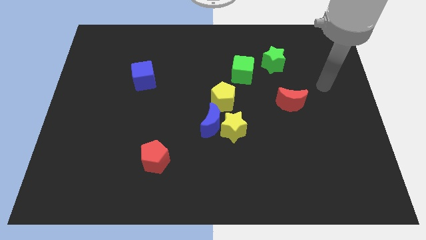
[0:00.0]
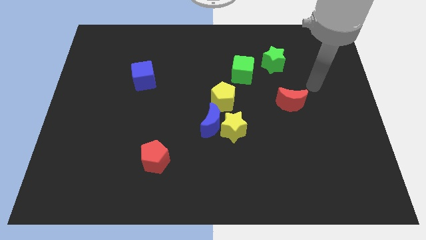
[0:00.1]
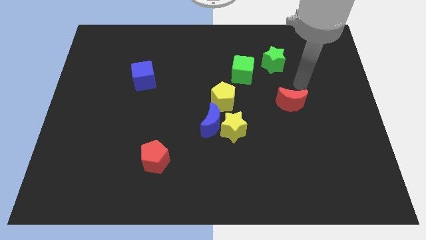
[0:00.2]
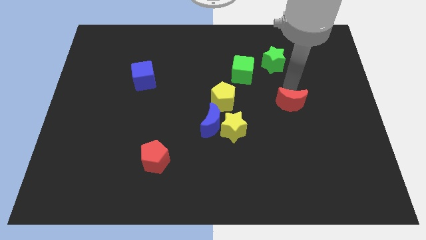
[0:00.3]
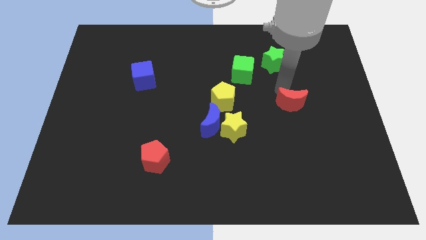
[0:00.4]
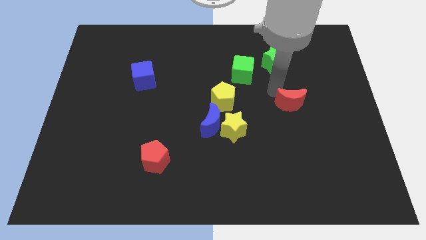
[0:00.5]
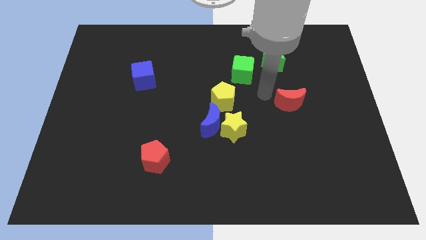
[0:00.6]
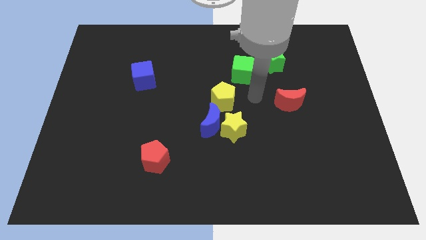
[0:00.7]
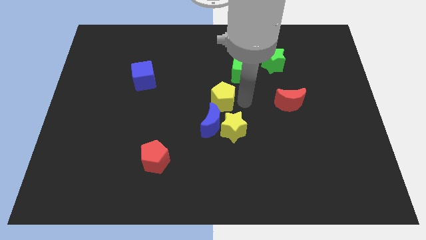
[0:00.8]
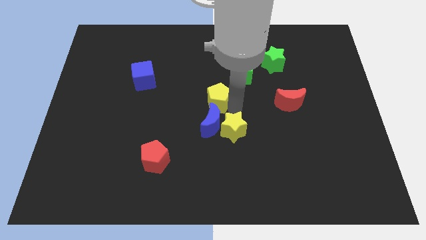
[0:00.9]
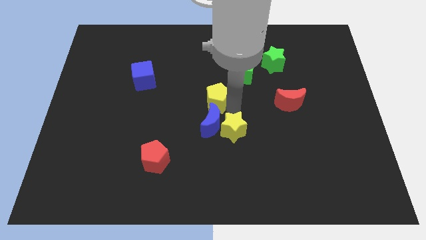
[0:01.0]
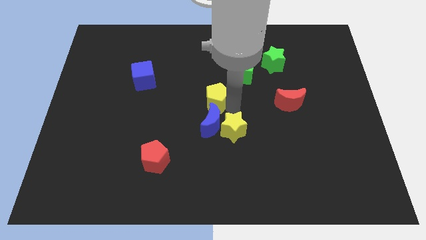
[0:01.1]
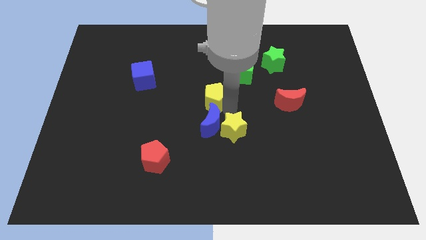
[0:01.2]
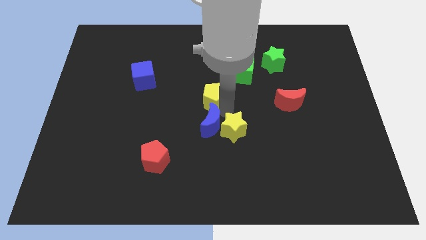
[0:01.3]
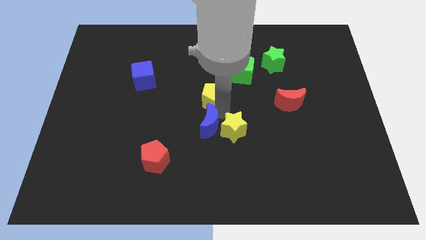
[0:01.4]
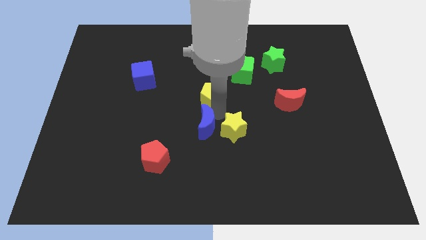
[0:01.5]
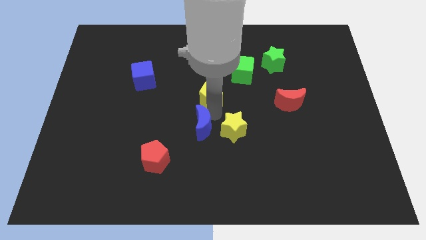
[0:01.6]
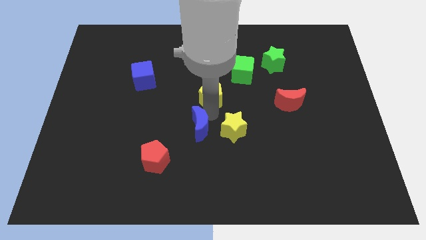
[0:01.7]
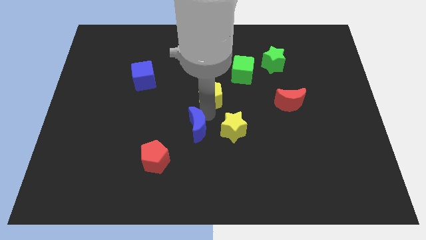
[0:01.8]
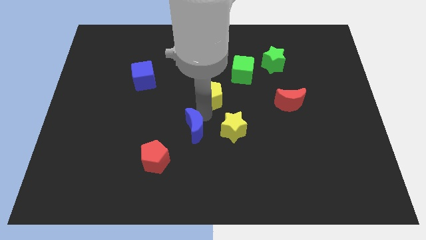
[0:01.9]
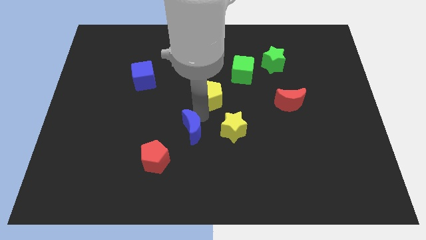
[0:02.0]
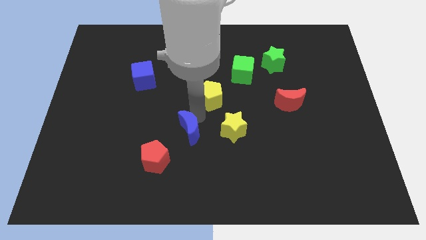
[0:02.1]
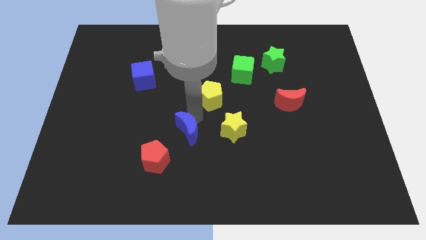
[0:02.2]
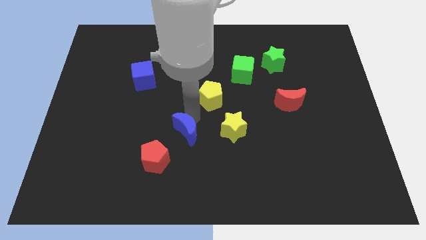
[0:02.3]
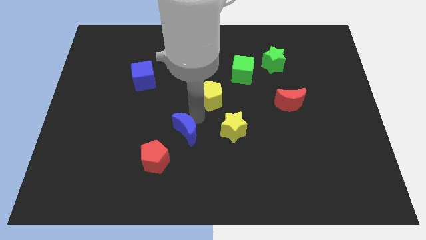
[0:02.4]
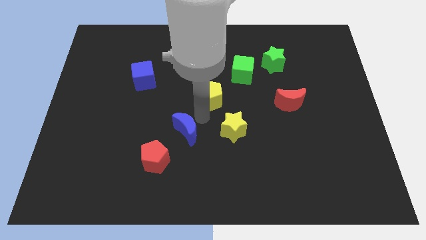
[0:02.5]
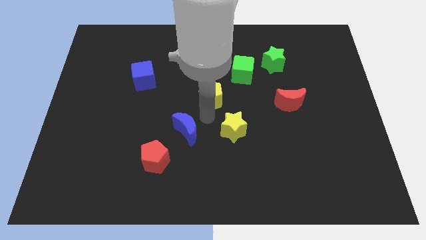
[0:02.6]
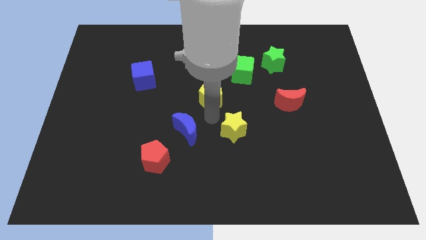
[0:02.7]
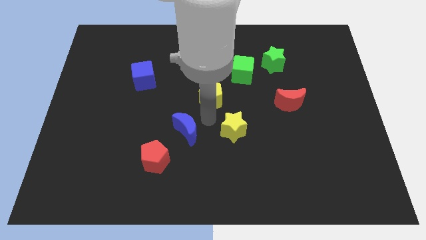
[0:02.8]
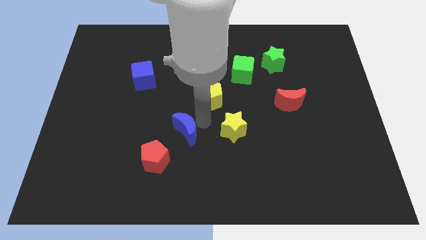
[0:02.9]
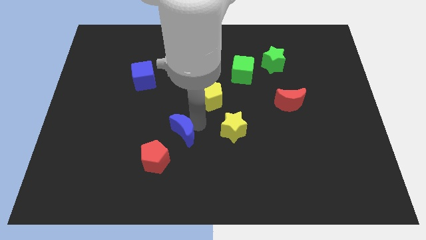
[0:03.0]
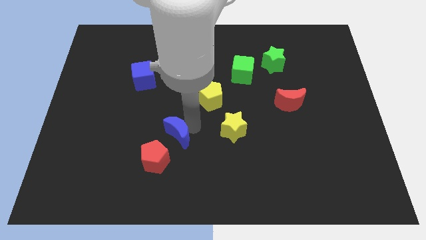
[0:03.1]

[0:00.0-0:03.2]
pull the blue moon apart from the yellow star and yellow pentagon

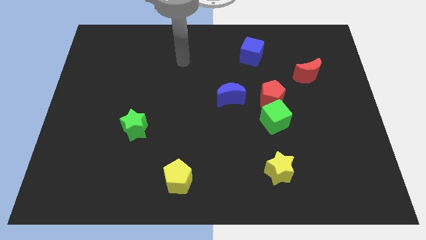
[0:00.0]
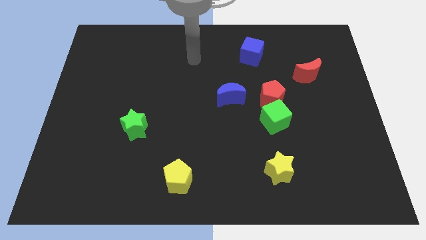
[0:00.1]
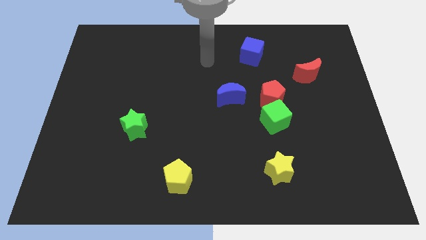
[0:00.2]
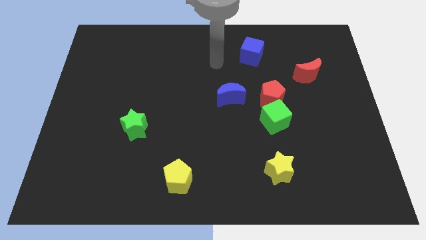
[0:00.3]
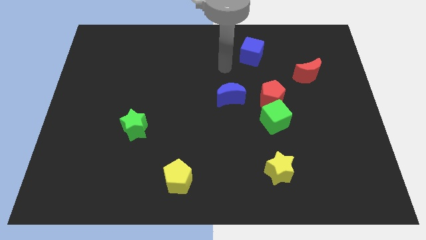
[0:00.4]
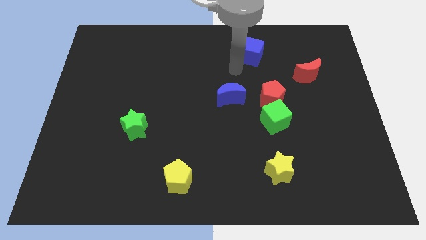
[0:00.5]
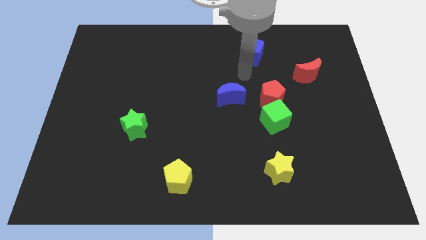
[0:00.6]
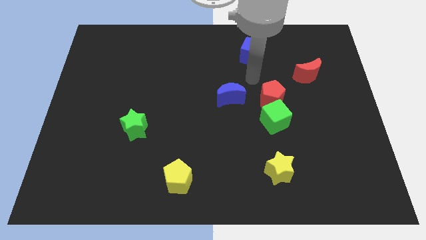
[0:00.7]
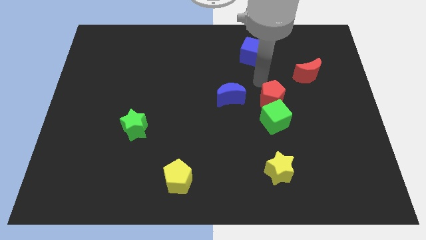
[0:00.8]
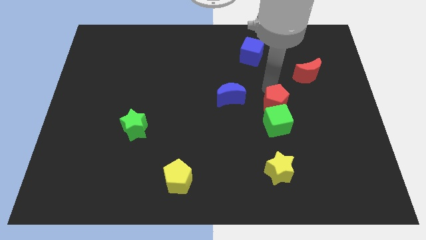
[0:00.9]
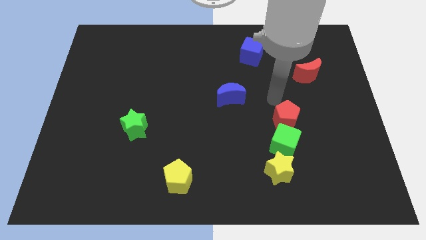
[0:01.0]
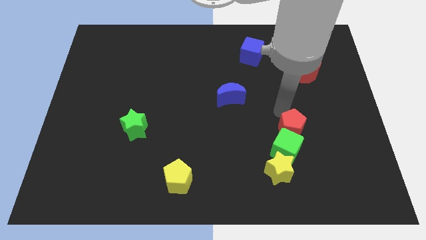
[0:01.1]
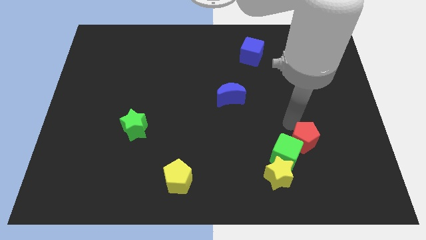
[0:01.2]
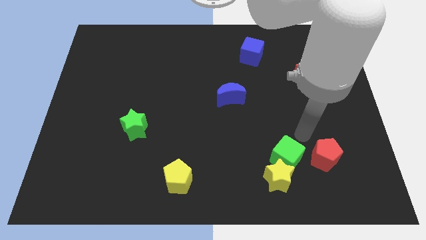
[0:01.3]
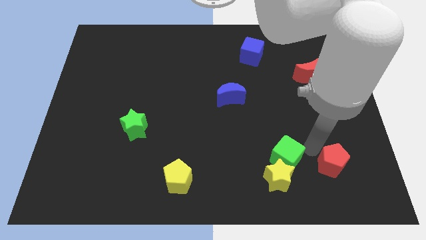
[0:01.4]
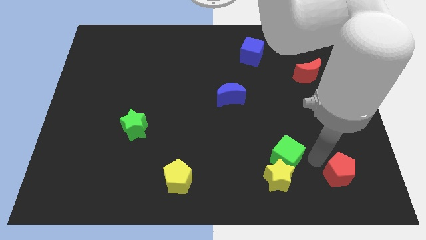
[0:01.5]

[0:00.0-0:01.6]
separate the green cube from the red pentagon

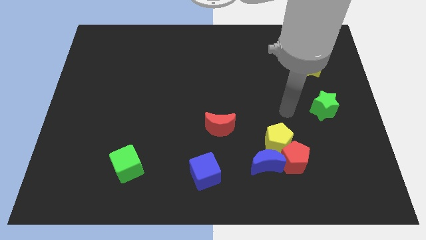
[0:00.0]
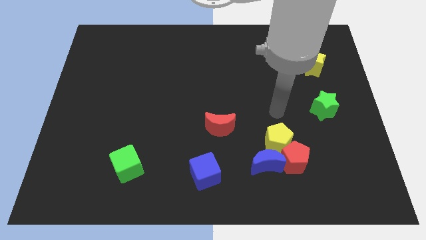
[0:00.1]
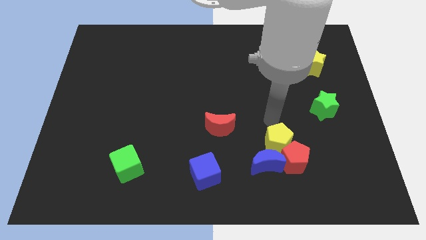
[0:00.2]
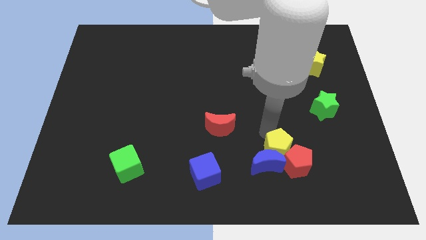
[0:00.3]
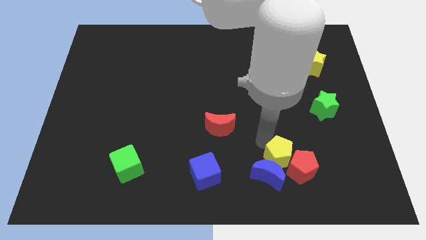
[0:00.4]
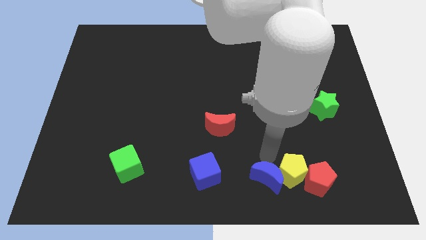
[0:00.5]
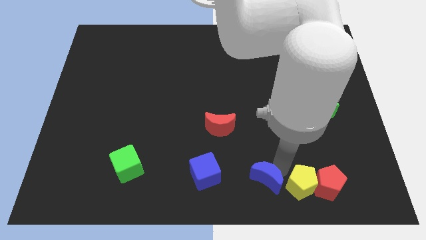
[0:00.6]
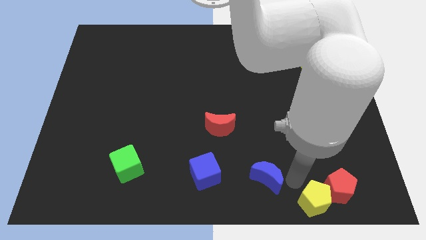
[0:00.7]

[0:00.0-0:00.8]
move the red pentagon away from the yellow pentagon and blue moon

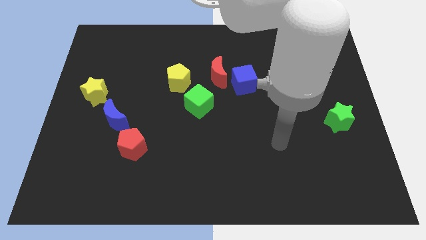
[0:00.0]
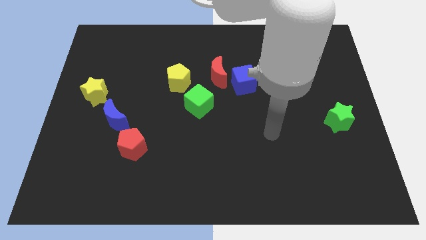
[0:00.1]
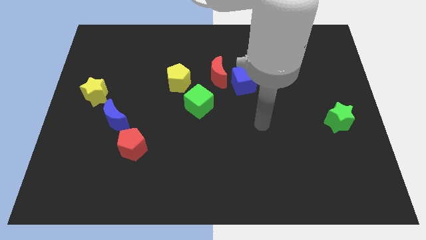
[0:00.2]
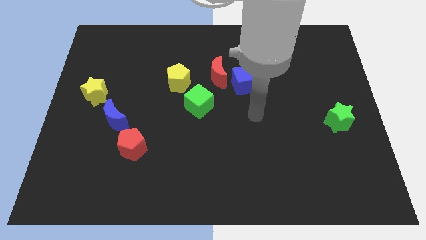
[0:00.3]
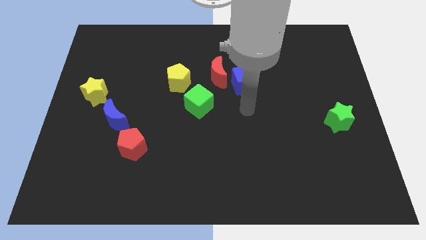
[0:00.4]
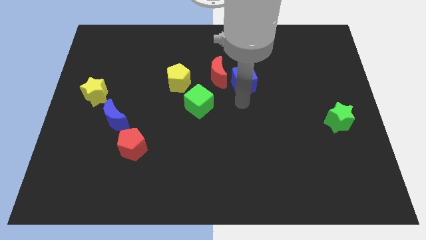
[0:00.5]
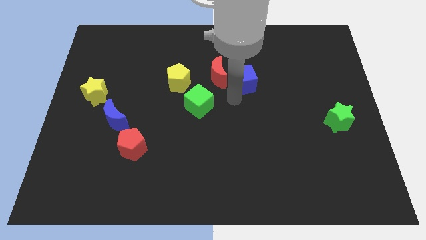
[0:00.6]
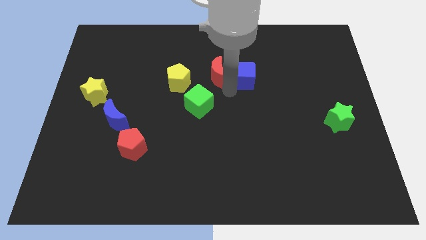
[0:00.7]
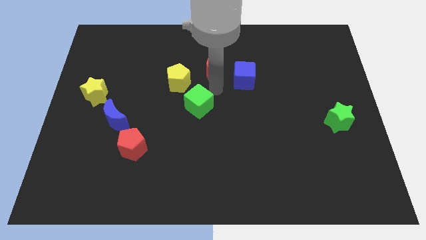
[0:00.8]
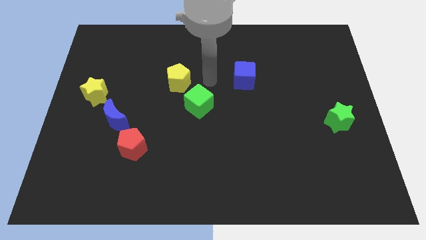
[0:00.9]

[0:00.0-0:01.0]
move the blue cube away from the red moon

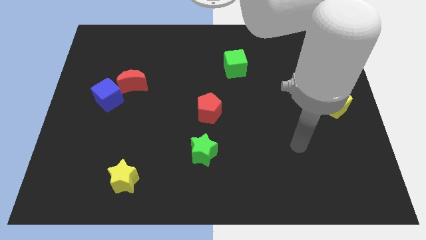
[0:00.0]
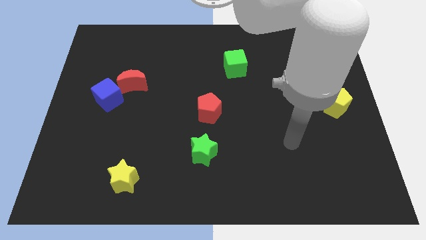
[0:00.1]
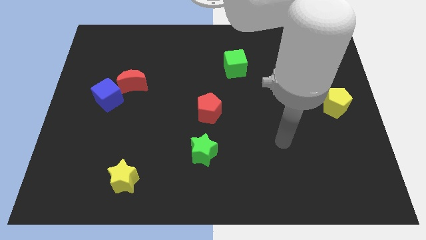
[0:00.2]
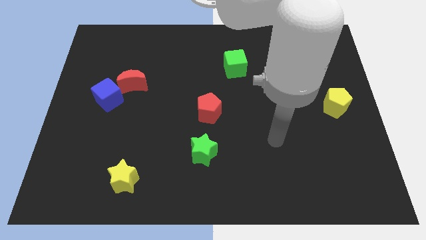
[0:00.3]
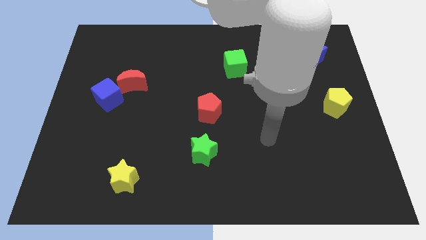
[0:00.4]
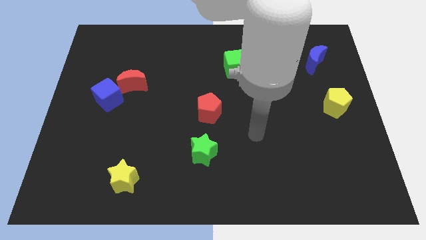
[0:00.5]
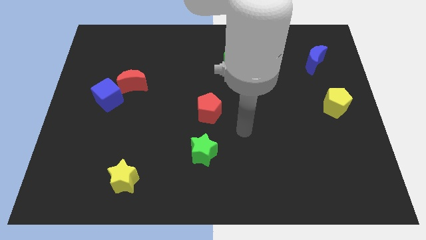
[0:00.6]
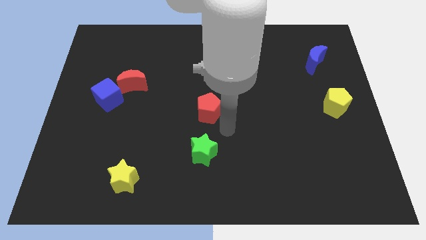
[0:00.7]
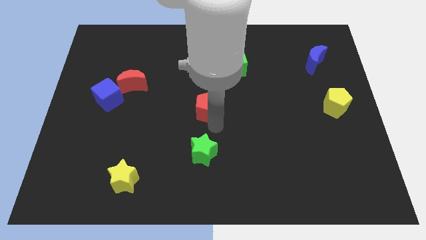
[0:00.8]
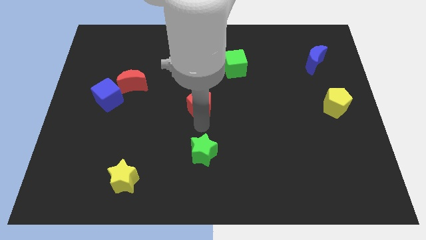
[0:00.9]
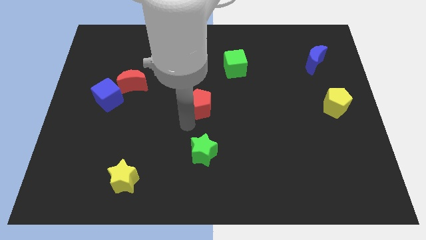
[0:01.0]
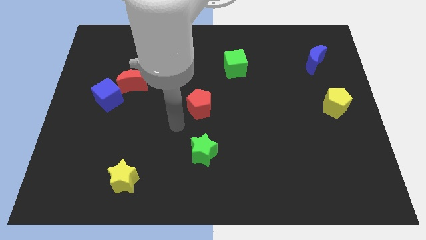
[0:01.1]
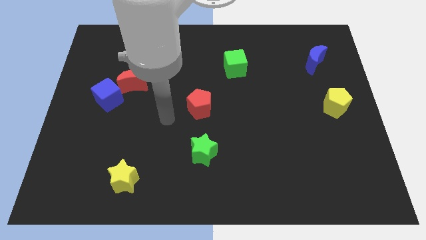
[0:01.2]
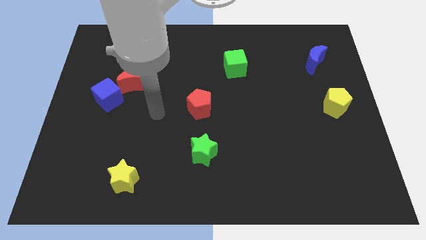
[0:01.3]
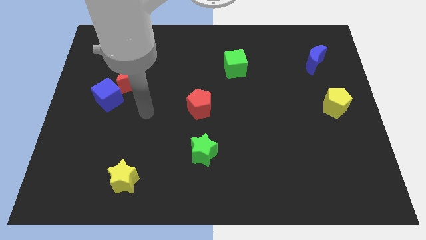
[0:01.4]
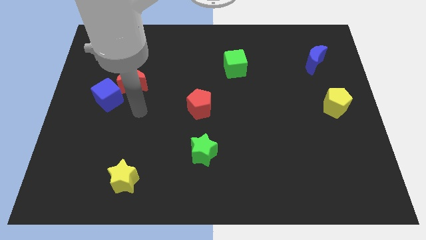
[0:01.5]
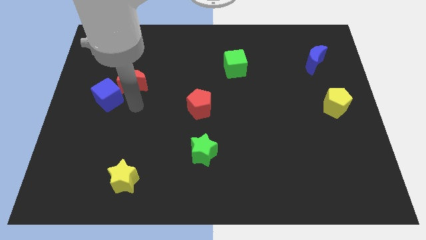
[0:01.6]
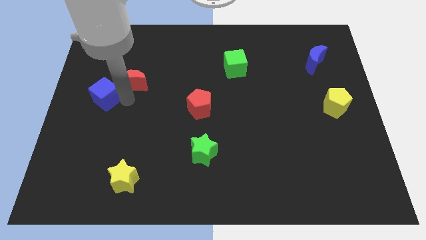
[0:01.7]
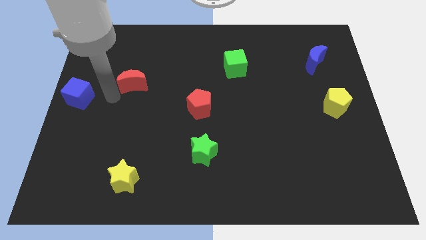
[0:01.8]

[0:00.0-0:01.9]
pull the red moon apart from the blue cube

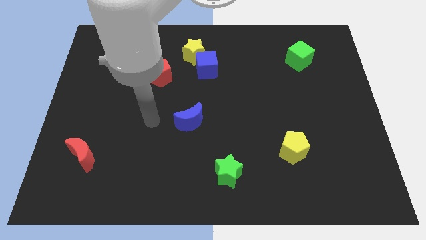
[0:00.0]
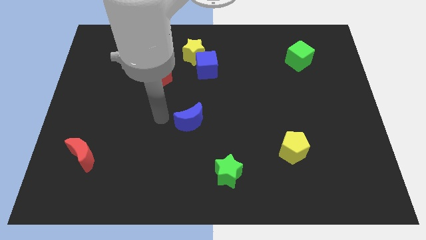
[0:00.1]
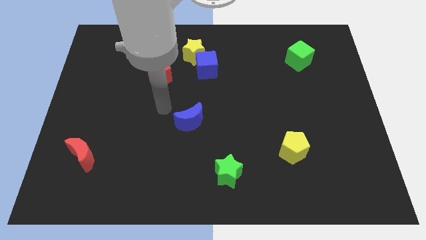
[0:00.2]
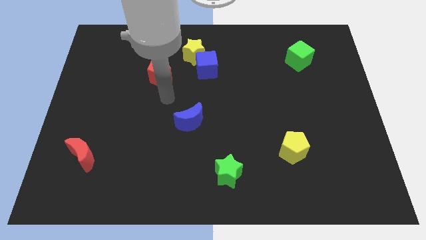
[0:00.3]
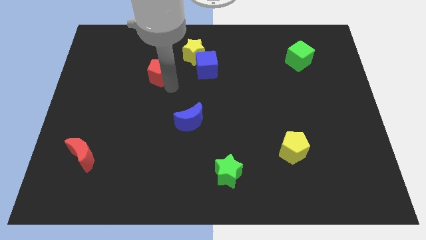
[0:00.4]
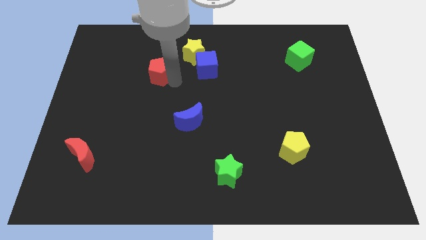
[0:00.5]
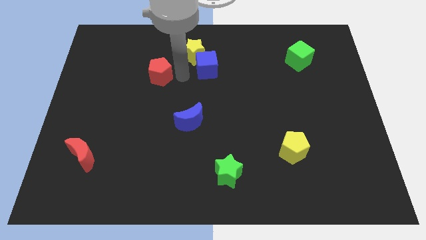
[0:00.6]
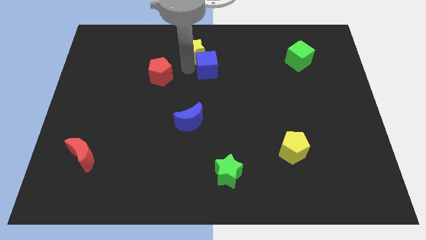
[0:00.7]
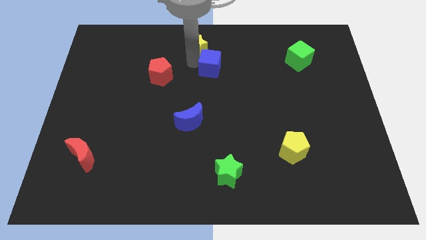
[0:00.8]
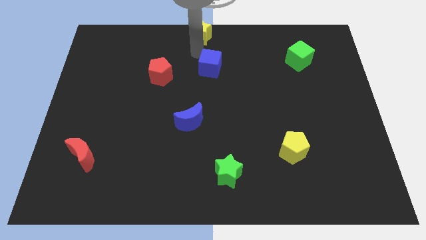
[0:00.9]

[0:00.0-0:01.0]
pull the blue cube apart from the yellow star
